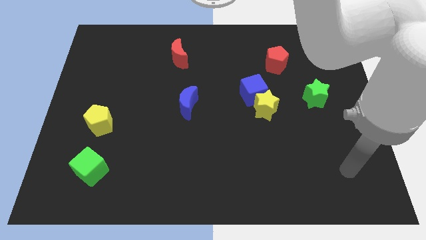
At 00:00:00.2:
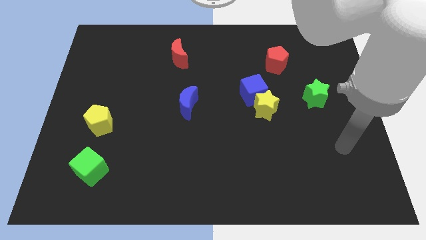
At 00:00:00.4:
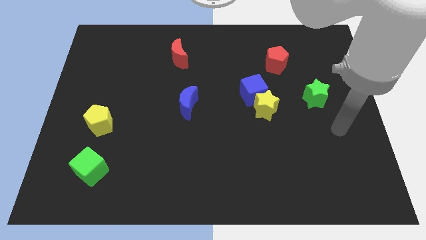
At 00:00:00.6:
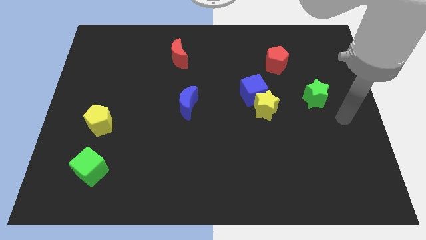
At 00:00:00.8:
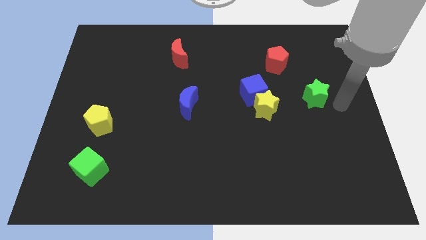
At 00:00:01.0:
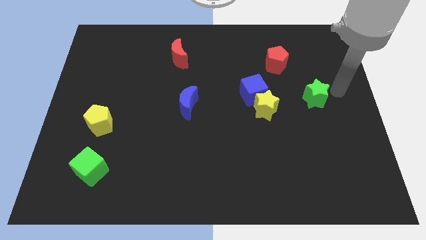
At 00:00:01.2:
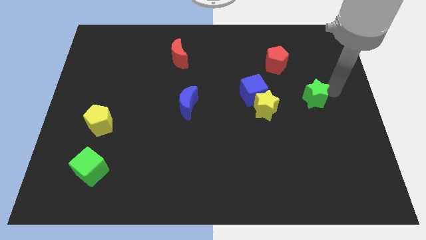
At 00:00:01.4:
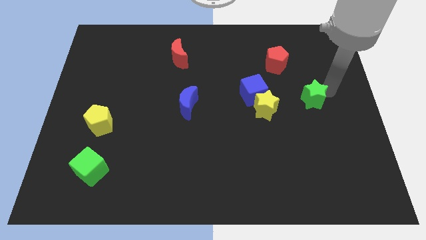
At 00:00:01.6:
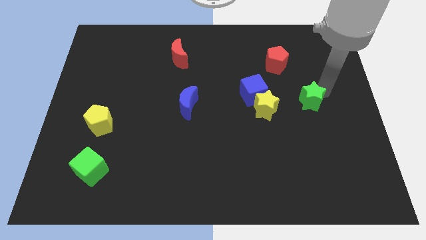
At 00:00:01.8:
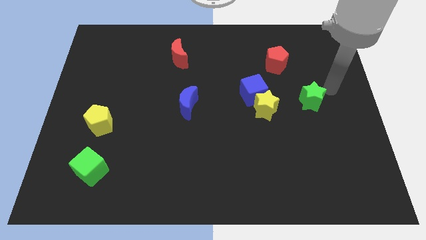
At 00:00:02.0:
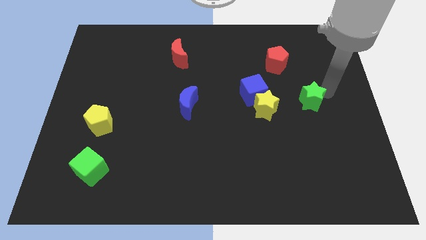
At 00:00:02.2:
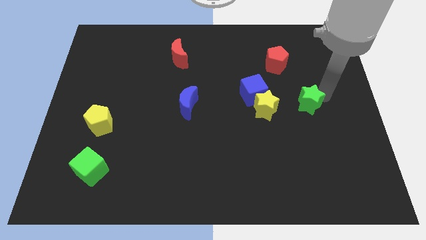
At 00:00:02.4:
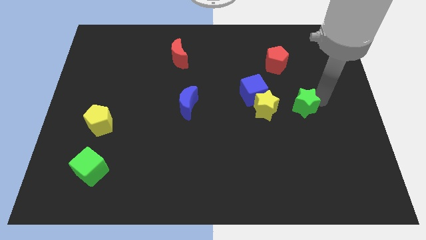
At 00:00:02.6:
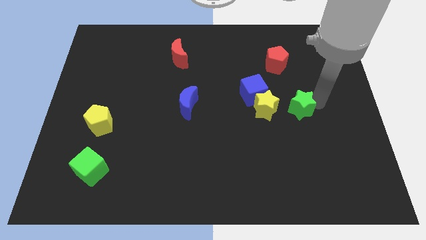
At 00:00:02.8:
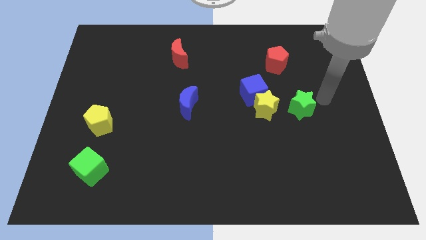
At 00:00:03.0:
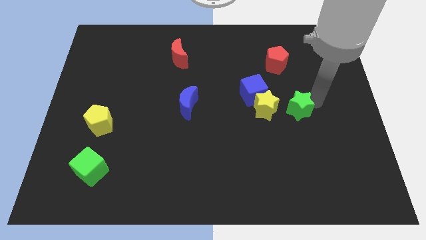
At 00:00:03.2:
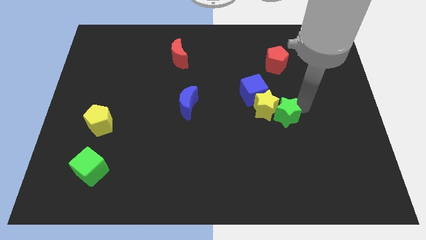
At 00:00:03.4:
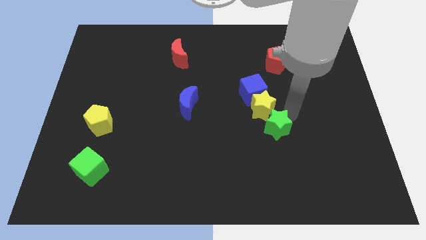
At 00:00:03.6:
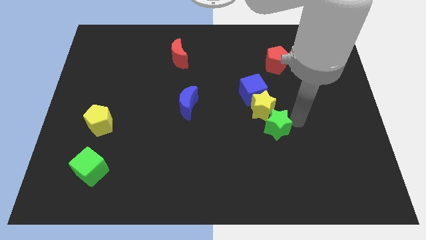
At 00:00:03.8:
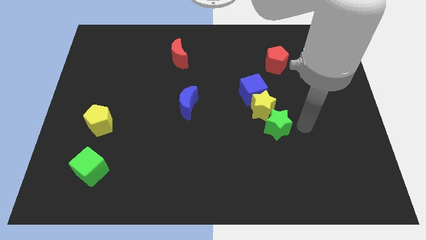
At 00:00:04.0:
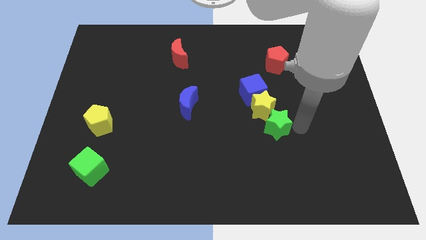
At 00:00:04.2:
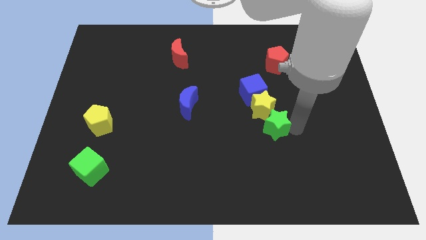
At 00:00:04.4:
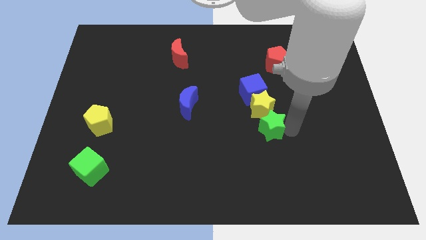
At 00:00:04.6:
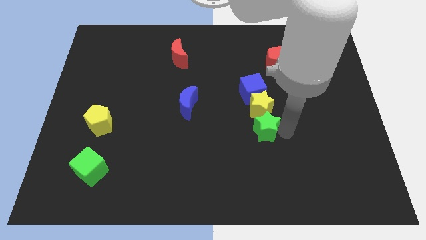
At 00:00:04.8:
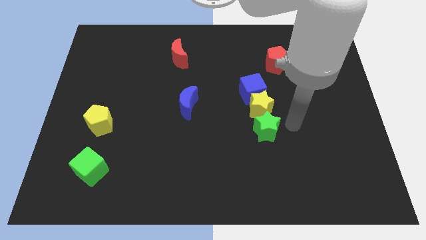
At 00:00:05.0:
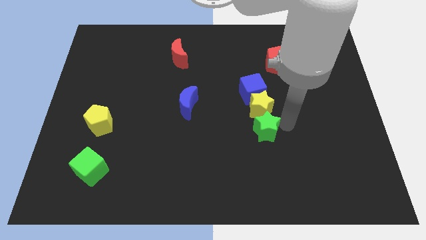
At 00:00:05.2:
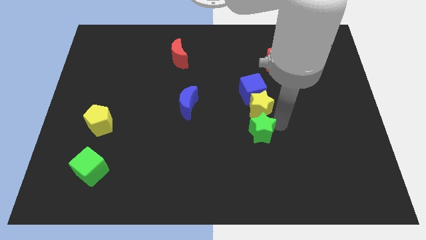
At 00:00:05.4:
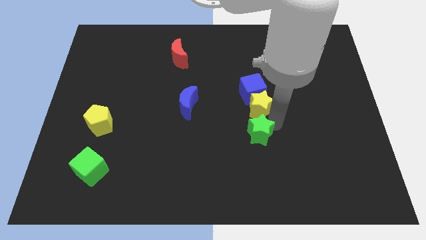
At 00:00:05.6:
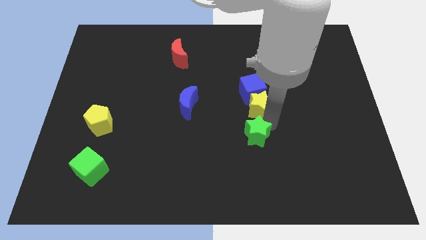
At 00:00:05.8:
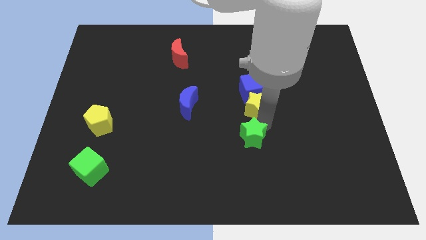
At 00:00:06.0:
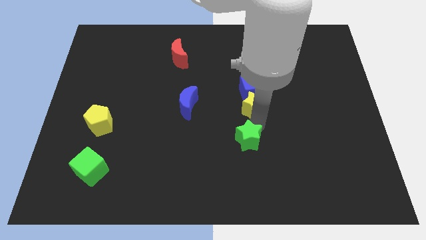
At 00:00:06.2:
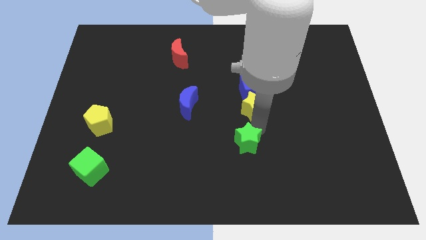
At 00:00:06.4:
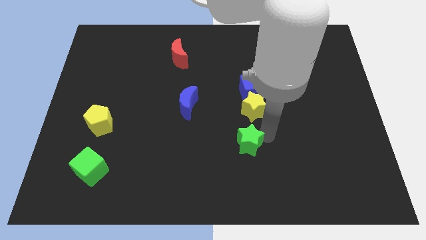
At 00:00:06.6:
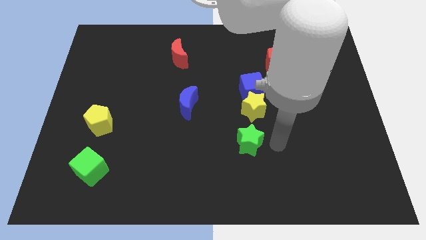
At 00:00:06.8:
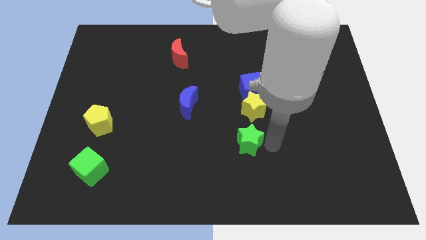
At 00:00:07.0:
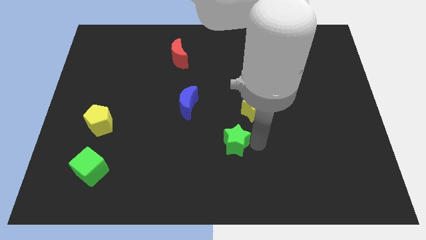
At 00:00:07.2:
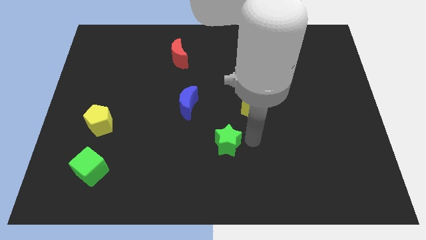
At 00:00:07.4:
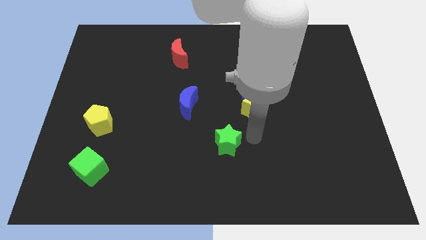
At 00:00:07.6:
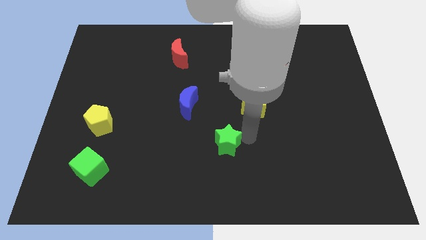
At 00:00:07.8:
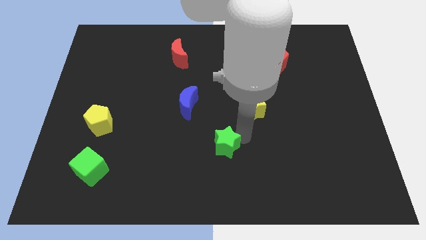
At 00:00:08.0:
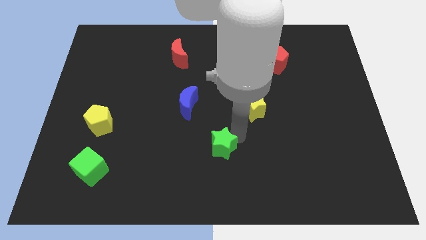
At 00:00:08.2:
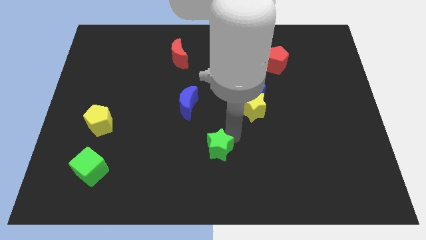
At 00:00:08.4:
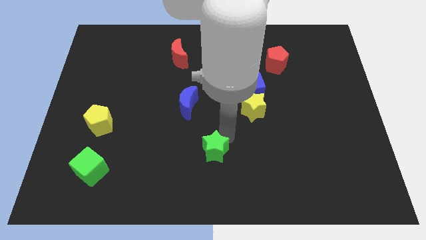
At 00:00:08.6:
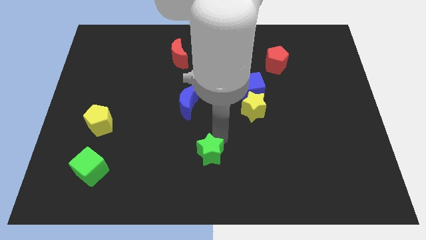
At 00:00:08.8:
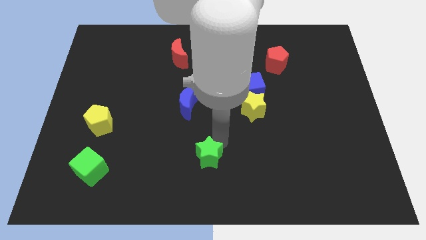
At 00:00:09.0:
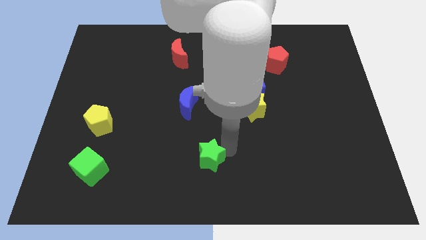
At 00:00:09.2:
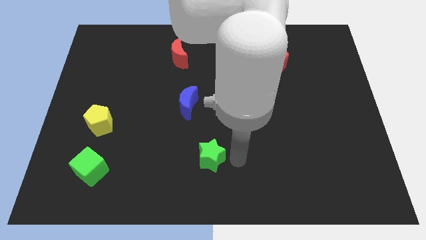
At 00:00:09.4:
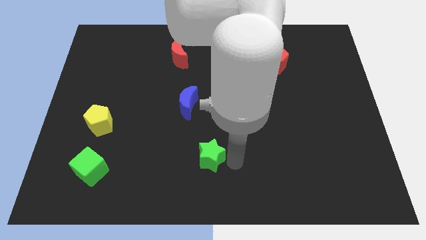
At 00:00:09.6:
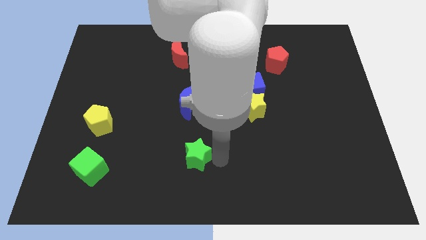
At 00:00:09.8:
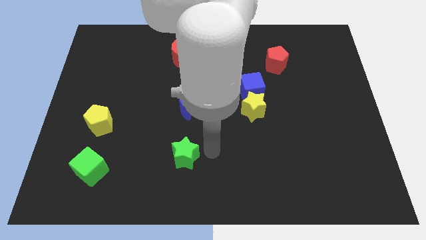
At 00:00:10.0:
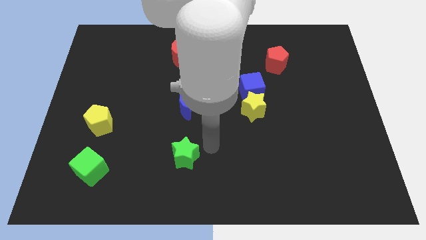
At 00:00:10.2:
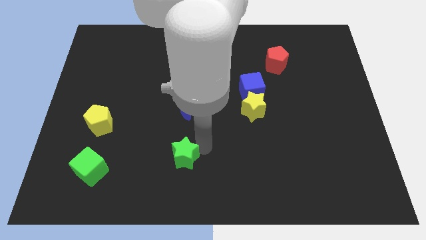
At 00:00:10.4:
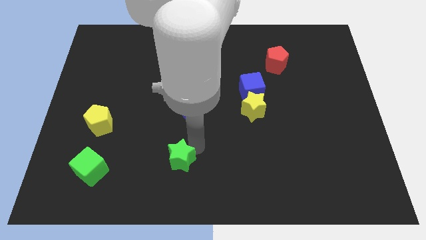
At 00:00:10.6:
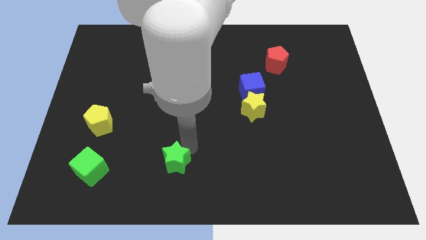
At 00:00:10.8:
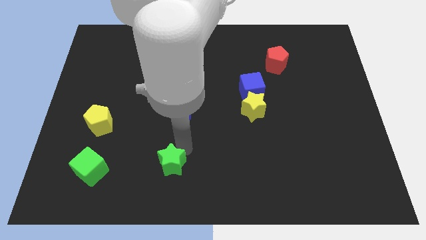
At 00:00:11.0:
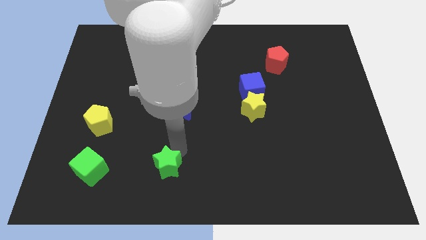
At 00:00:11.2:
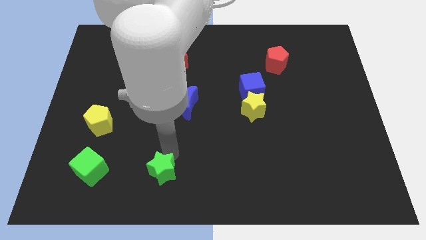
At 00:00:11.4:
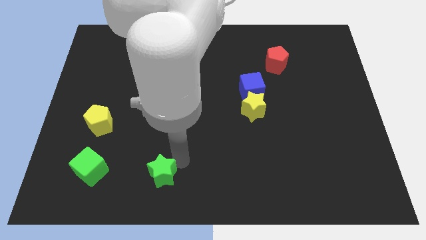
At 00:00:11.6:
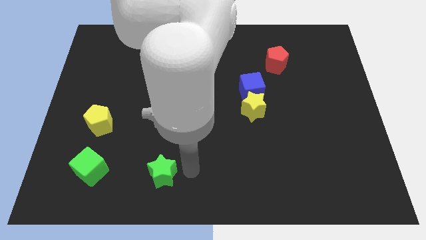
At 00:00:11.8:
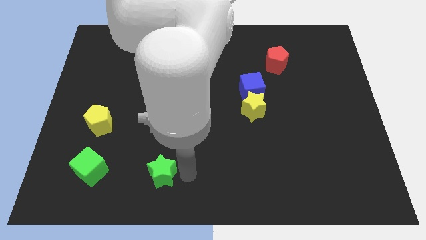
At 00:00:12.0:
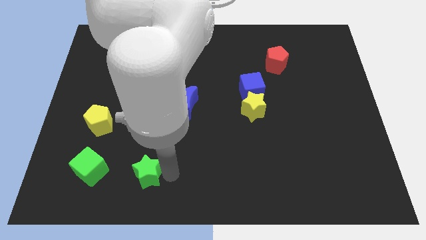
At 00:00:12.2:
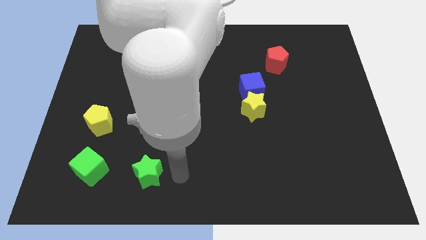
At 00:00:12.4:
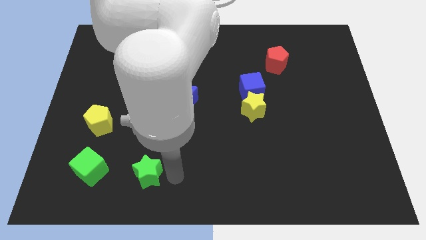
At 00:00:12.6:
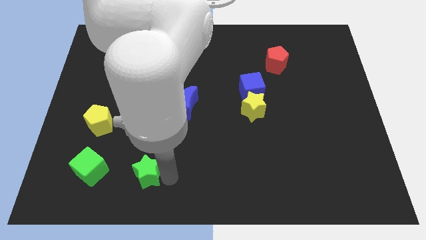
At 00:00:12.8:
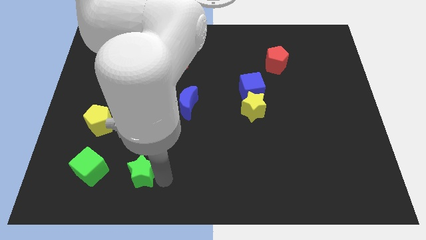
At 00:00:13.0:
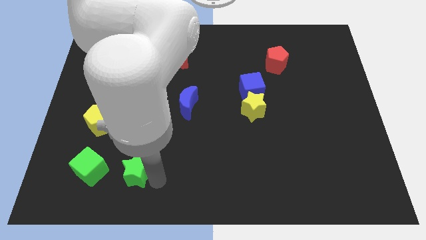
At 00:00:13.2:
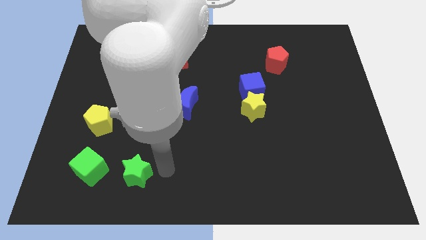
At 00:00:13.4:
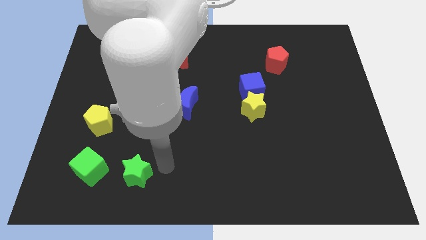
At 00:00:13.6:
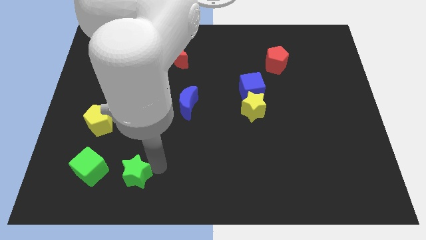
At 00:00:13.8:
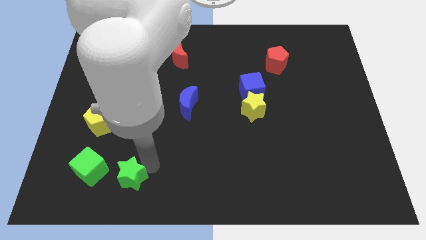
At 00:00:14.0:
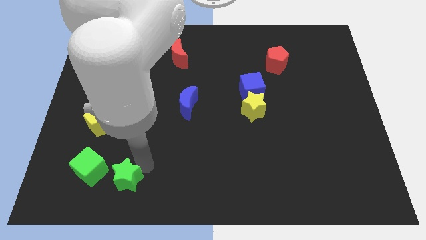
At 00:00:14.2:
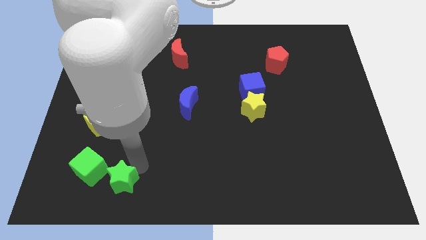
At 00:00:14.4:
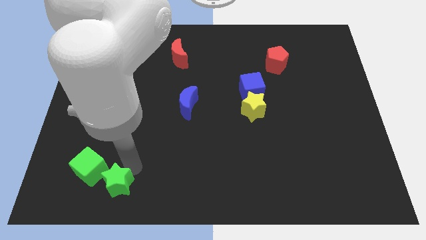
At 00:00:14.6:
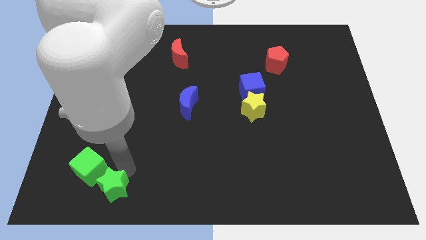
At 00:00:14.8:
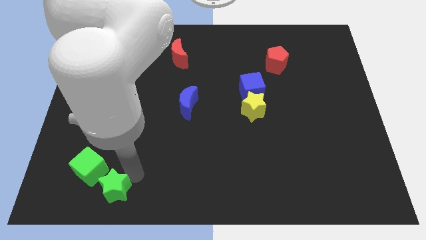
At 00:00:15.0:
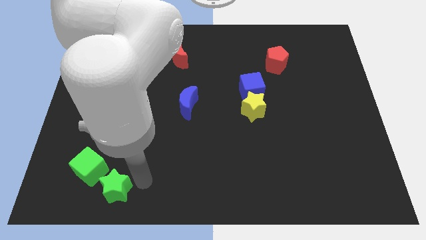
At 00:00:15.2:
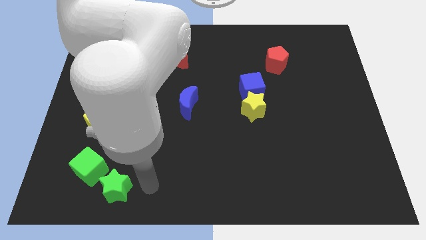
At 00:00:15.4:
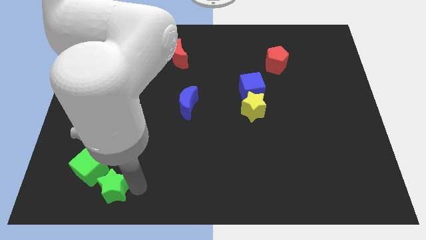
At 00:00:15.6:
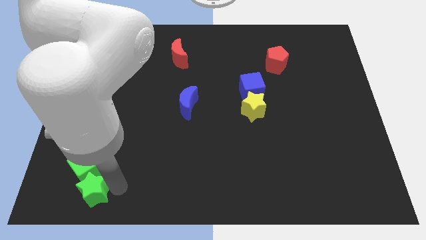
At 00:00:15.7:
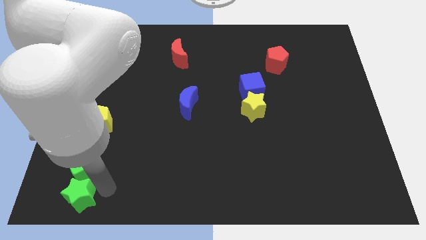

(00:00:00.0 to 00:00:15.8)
put the green star to the bottom left
